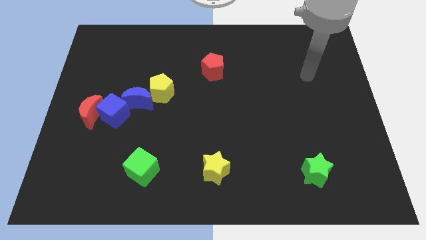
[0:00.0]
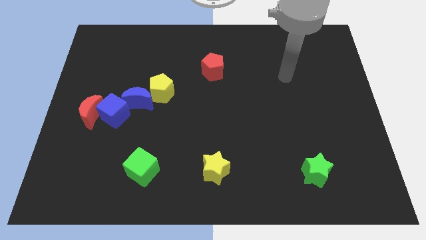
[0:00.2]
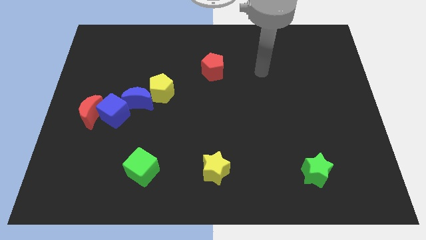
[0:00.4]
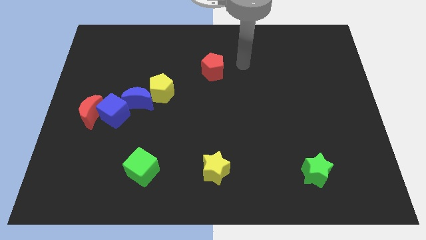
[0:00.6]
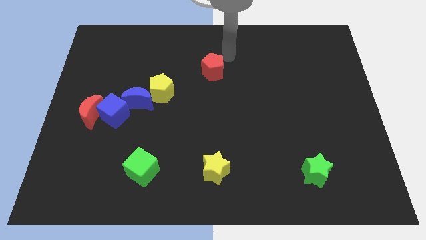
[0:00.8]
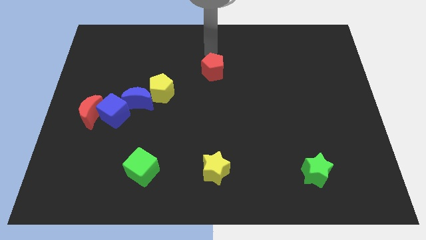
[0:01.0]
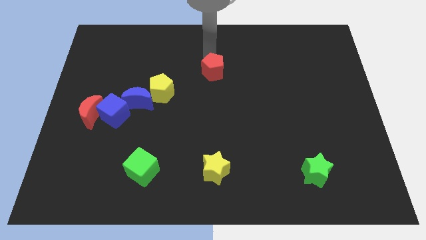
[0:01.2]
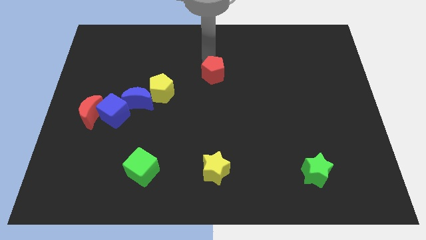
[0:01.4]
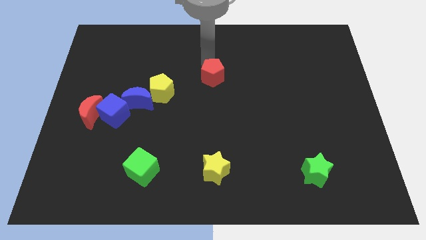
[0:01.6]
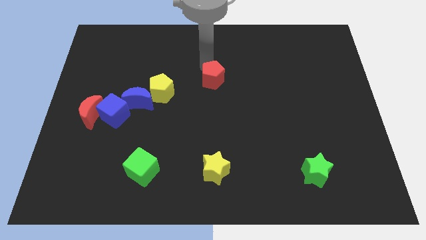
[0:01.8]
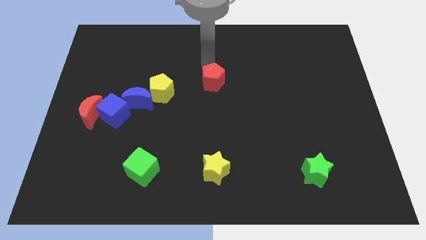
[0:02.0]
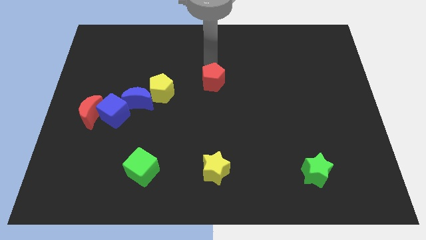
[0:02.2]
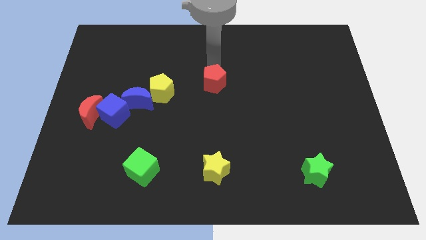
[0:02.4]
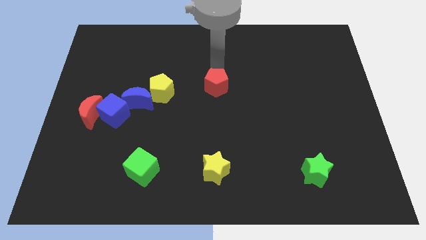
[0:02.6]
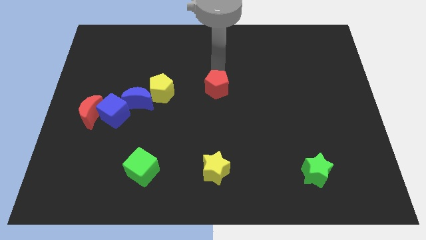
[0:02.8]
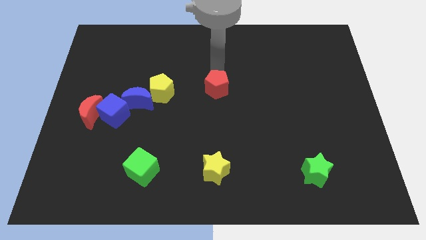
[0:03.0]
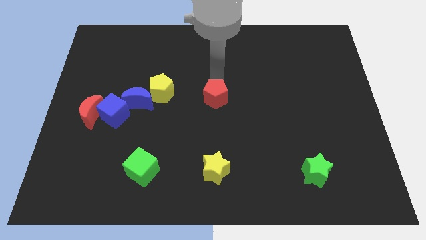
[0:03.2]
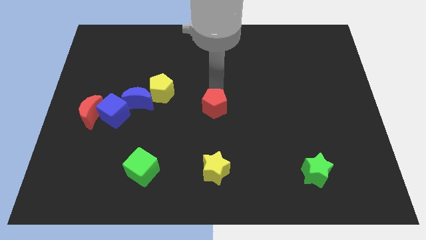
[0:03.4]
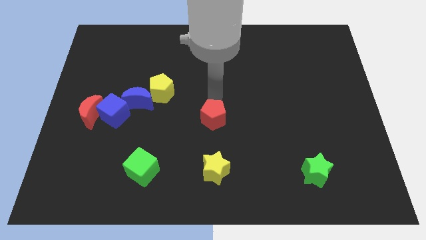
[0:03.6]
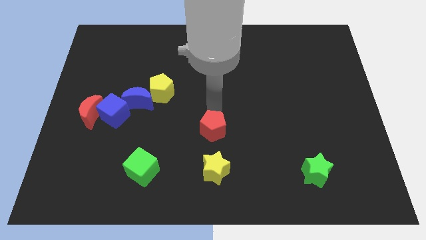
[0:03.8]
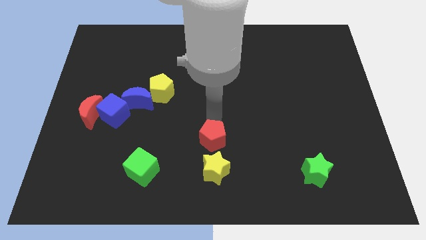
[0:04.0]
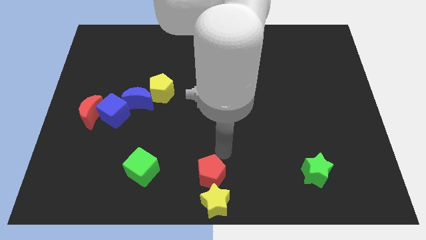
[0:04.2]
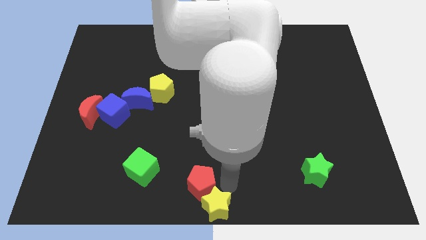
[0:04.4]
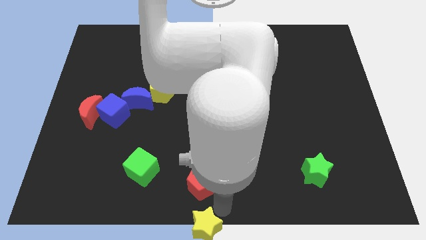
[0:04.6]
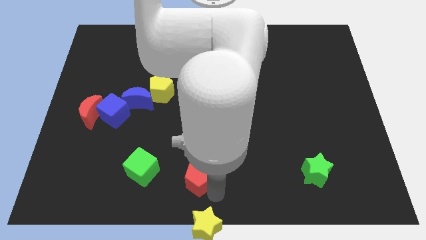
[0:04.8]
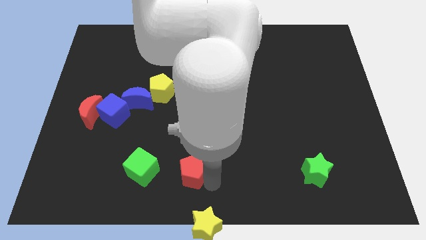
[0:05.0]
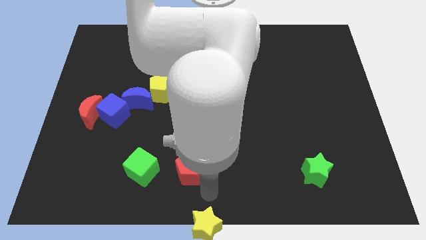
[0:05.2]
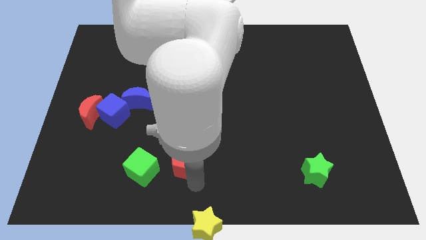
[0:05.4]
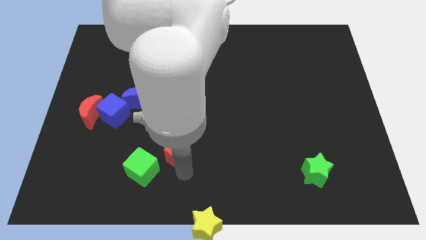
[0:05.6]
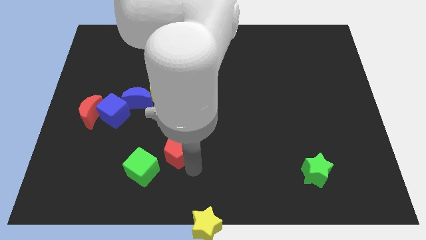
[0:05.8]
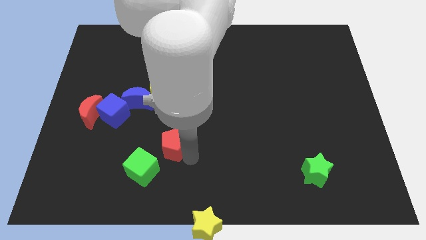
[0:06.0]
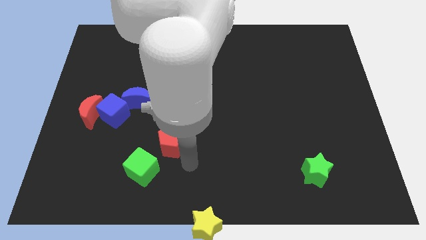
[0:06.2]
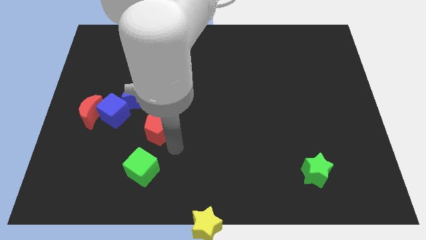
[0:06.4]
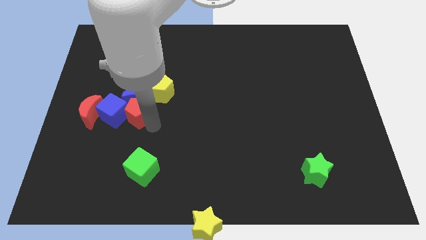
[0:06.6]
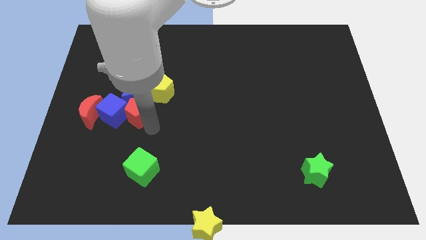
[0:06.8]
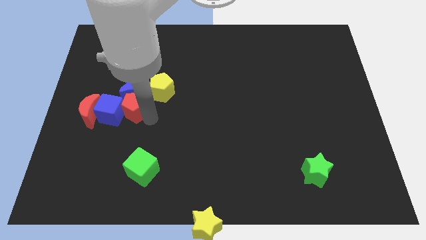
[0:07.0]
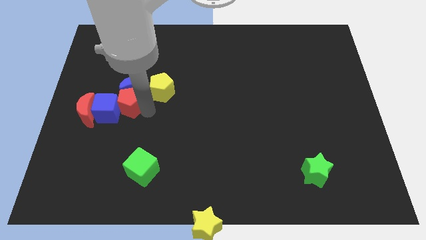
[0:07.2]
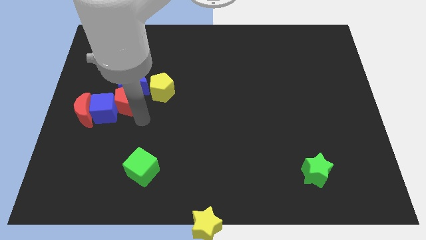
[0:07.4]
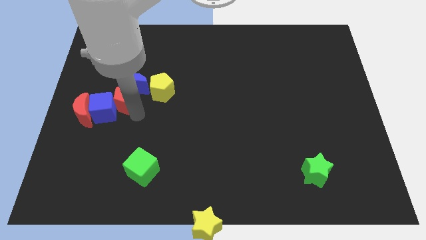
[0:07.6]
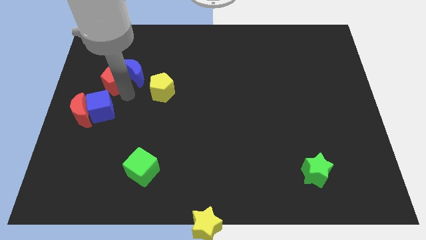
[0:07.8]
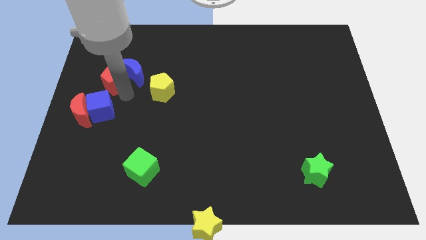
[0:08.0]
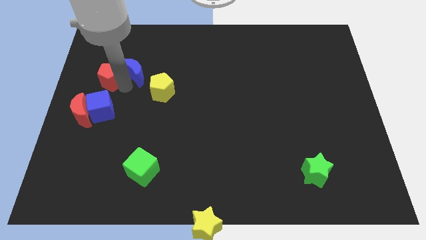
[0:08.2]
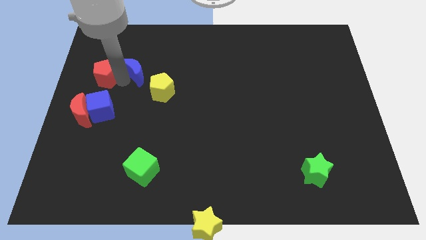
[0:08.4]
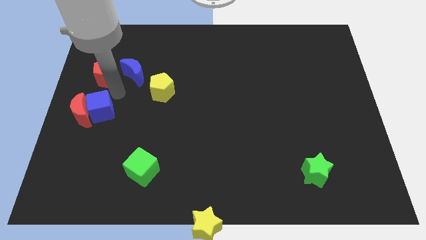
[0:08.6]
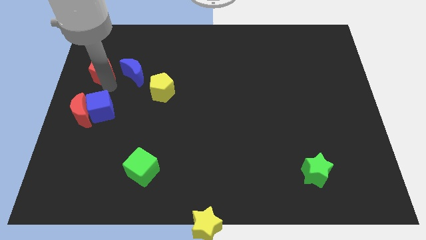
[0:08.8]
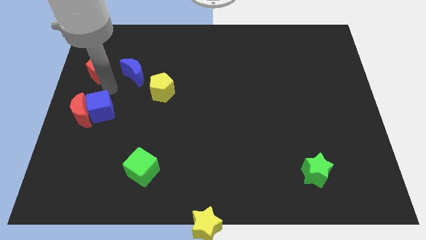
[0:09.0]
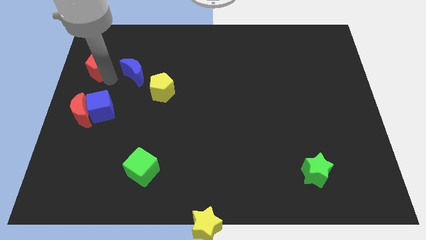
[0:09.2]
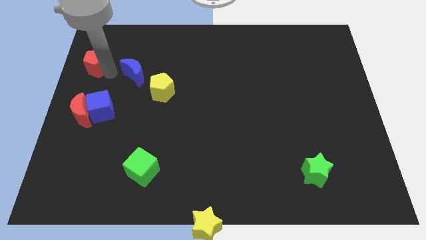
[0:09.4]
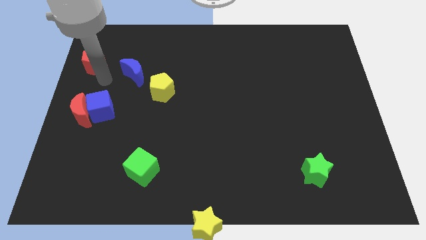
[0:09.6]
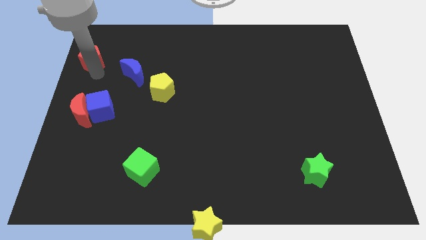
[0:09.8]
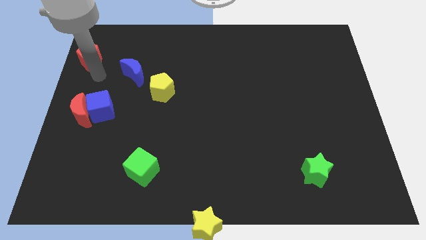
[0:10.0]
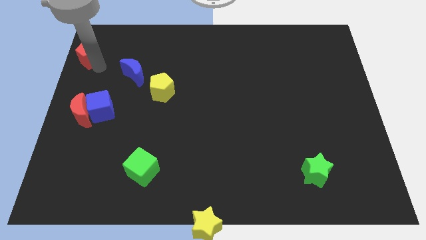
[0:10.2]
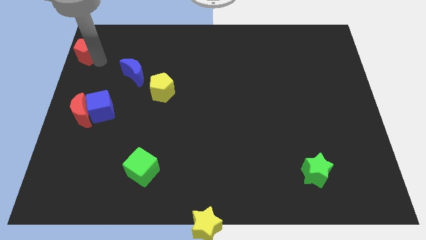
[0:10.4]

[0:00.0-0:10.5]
move the red pentagon to the upper left corner
